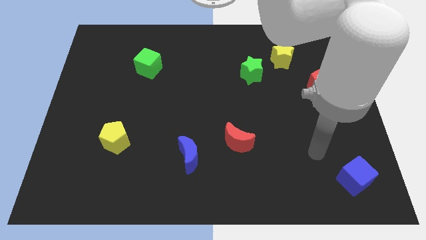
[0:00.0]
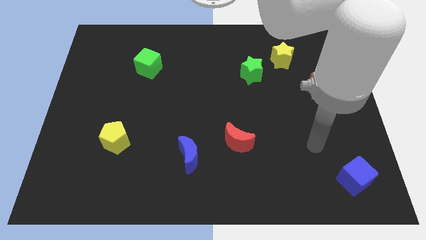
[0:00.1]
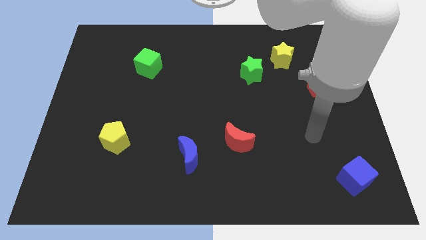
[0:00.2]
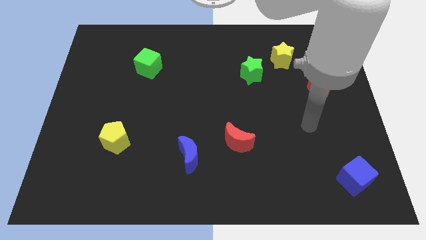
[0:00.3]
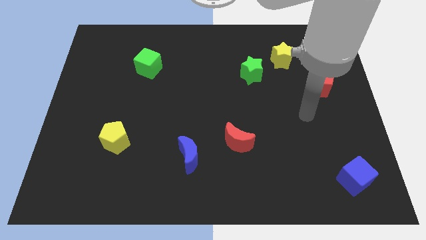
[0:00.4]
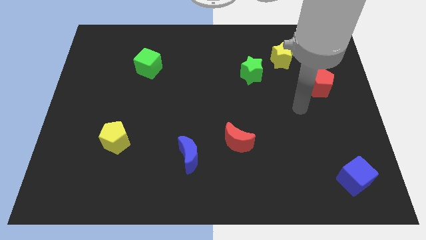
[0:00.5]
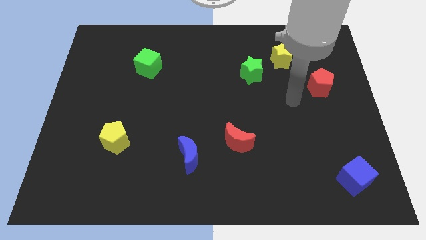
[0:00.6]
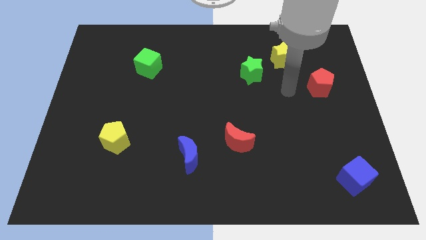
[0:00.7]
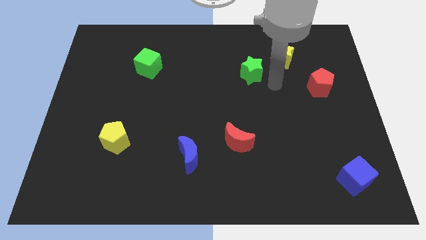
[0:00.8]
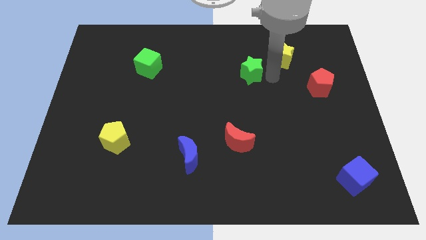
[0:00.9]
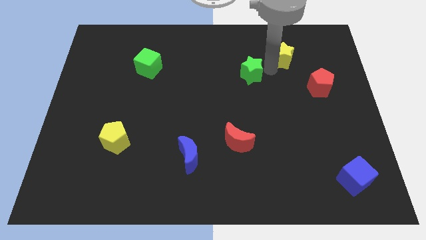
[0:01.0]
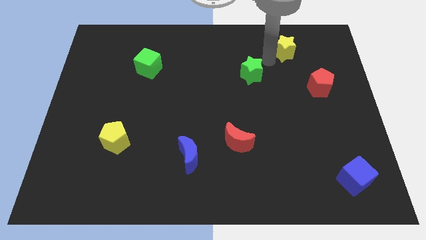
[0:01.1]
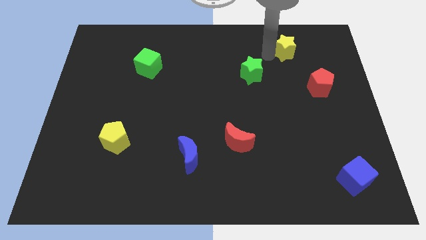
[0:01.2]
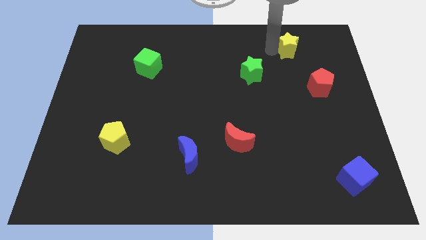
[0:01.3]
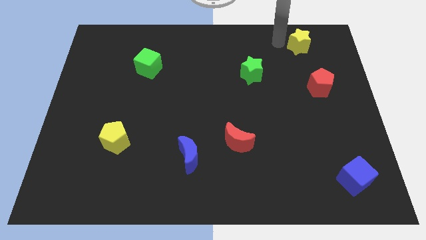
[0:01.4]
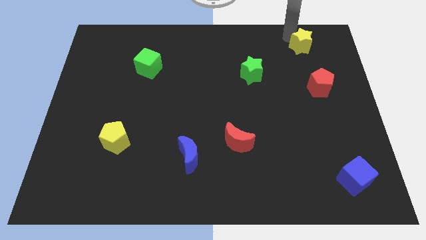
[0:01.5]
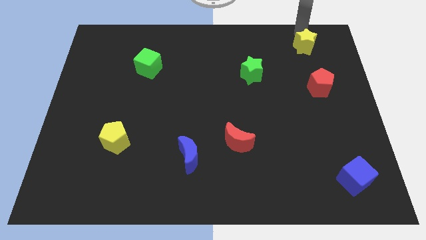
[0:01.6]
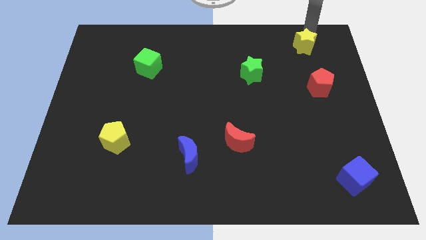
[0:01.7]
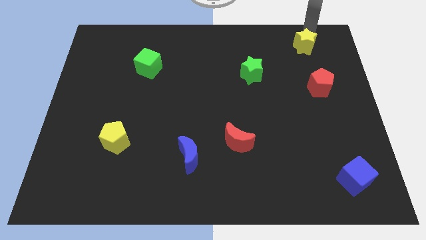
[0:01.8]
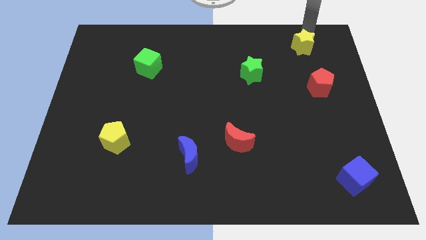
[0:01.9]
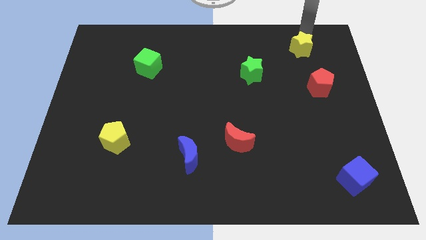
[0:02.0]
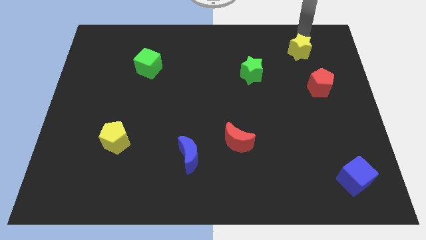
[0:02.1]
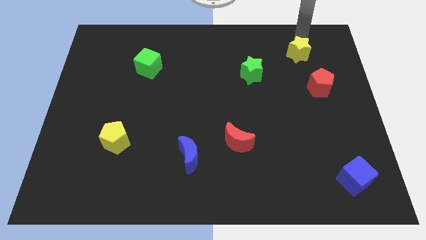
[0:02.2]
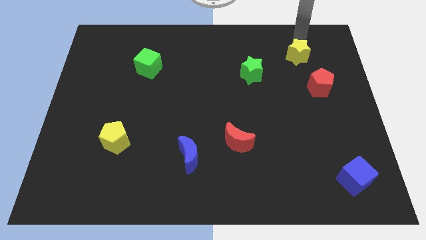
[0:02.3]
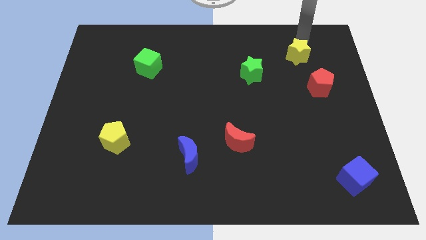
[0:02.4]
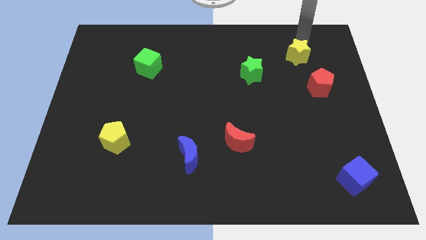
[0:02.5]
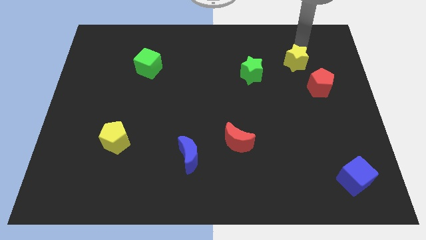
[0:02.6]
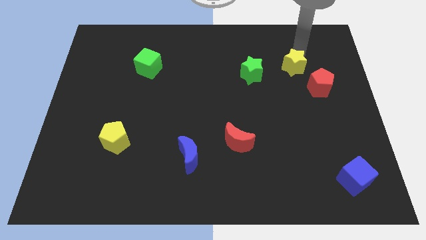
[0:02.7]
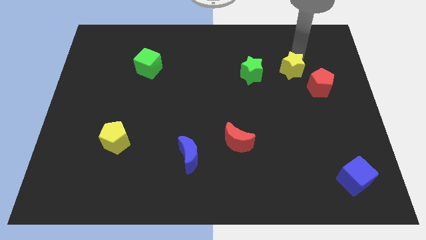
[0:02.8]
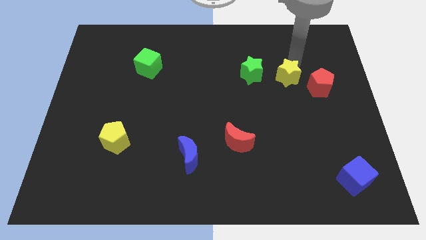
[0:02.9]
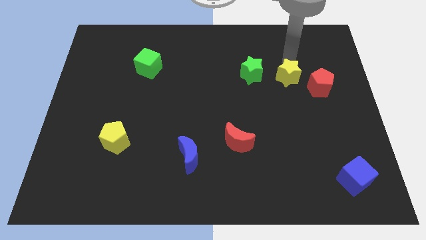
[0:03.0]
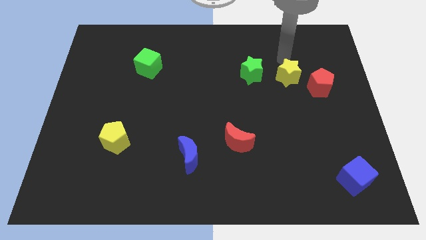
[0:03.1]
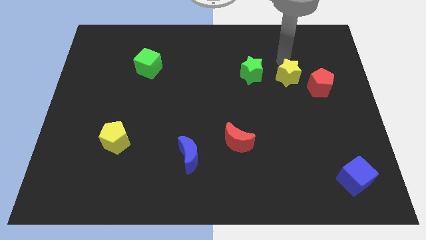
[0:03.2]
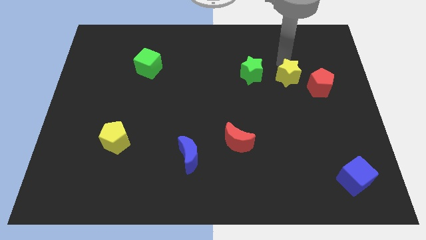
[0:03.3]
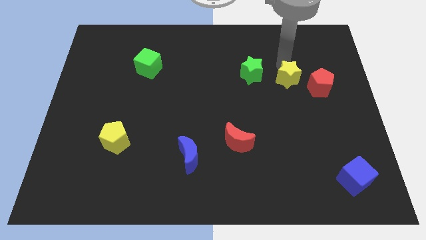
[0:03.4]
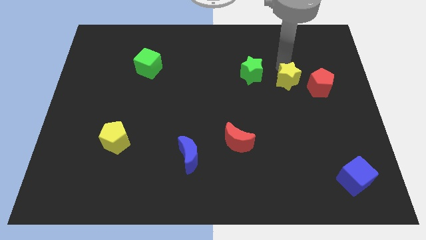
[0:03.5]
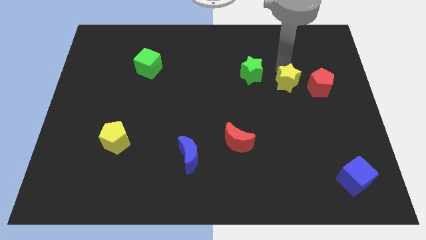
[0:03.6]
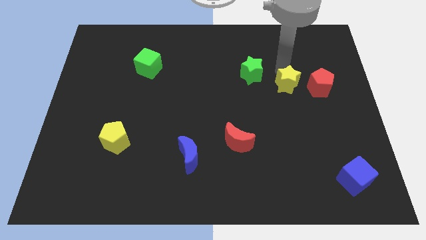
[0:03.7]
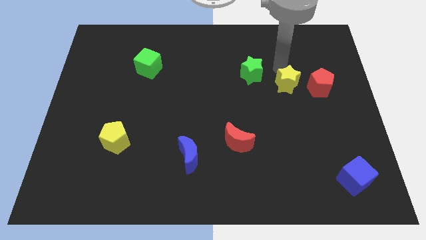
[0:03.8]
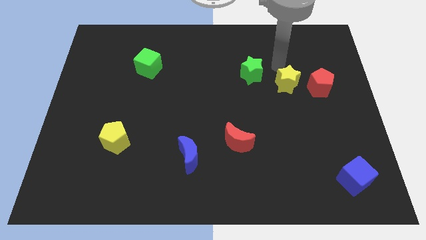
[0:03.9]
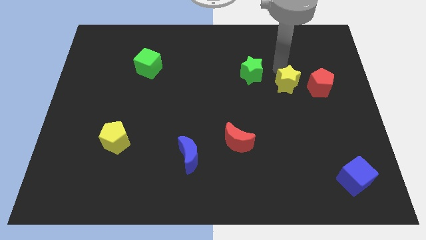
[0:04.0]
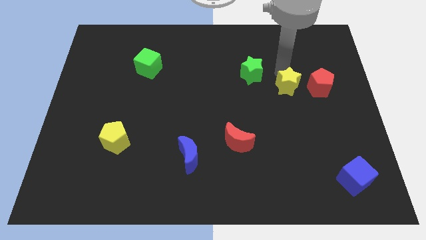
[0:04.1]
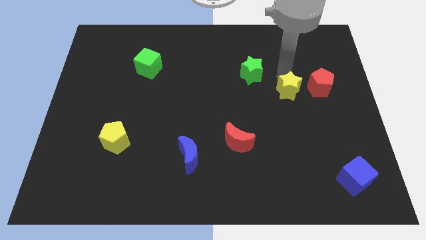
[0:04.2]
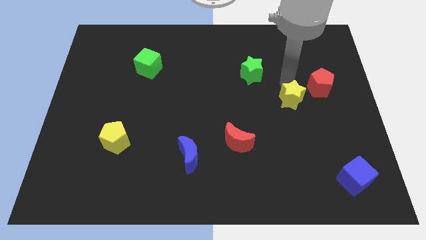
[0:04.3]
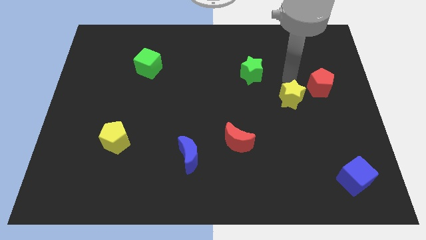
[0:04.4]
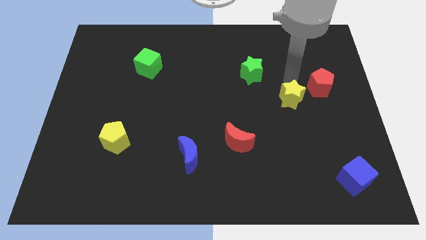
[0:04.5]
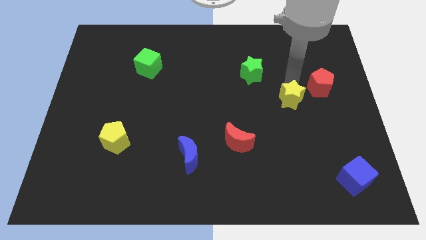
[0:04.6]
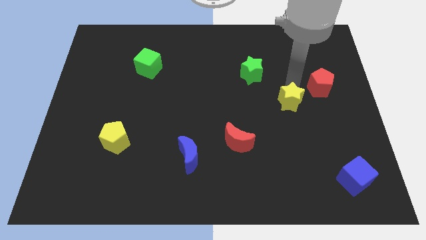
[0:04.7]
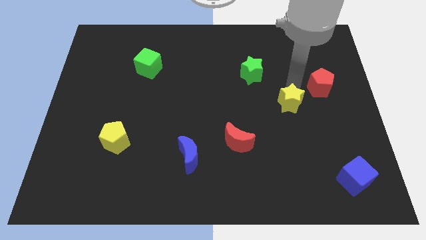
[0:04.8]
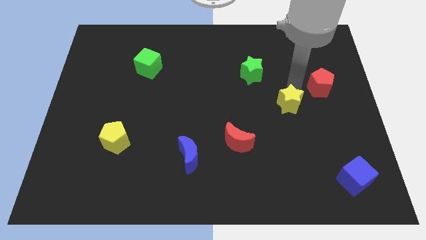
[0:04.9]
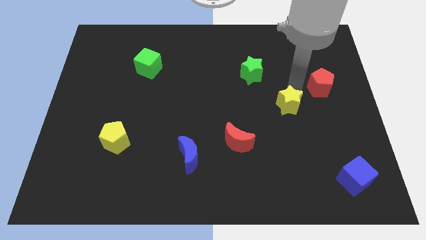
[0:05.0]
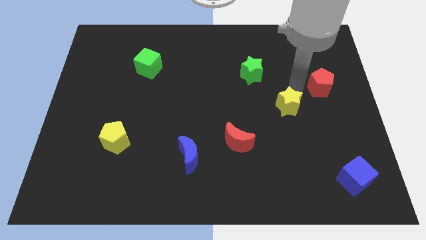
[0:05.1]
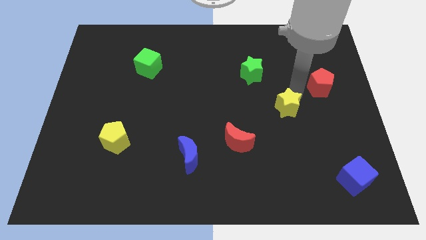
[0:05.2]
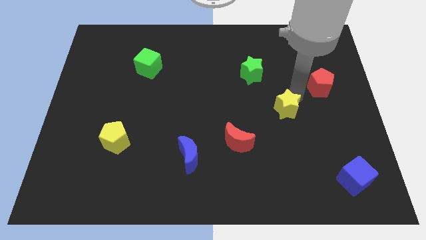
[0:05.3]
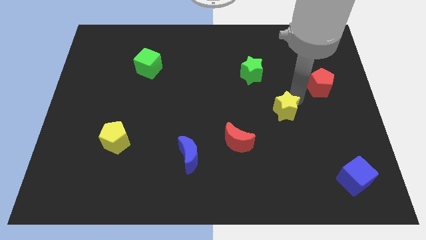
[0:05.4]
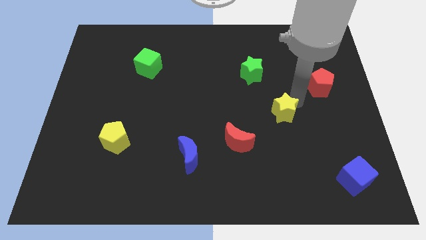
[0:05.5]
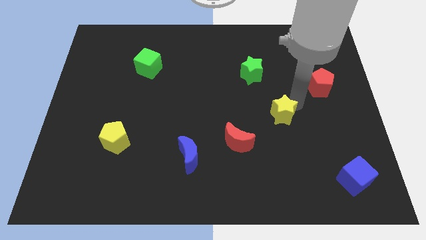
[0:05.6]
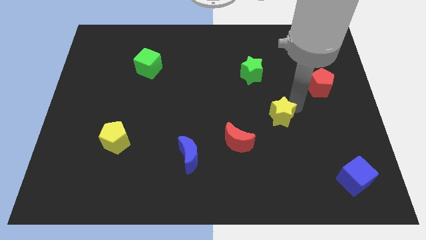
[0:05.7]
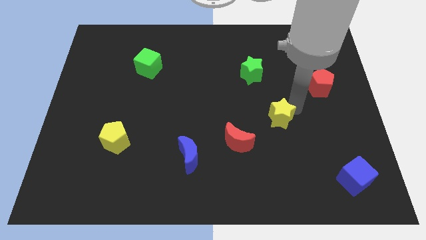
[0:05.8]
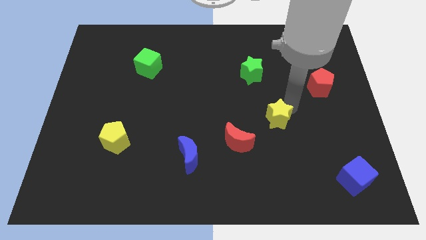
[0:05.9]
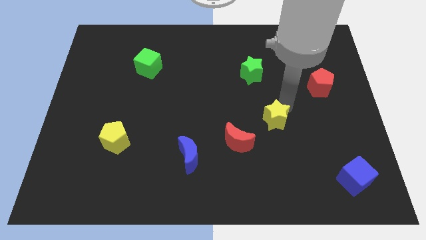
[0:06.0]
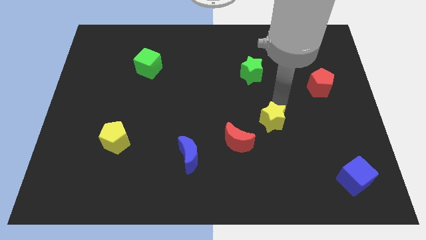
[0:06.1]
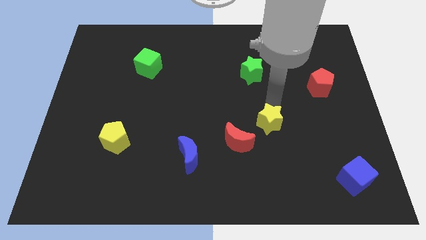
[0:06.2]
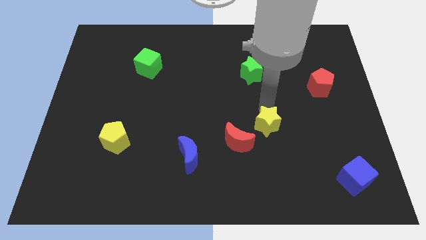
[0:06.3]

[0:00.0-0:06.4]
slide the yellow star down

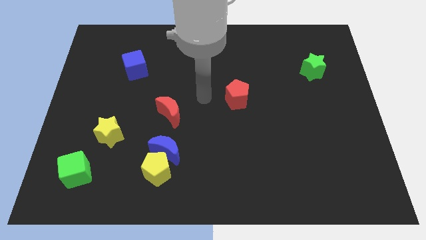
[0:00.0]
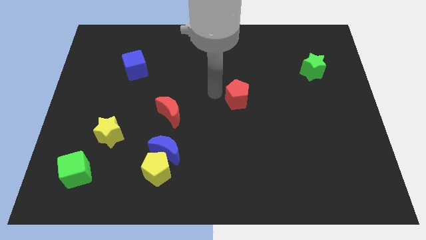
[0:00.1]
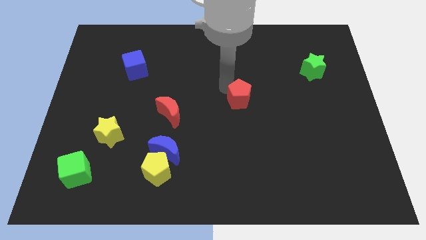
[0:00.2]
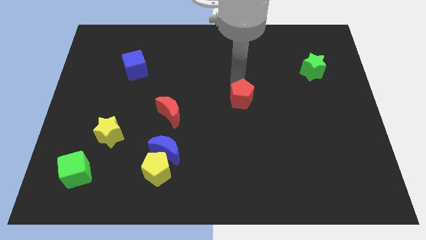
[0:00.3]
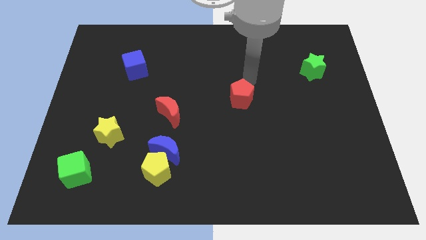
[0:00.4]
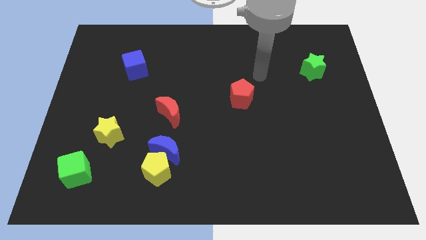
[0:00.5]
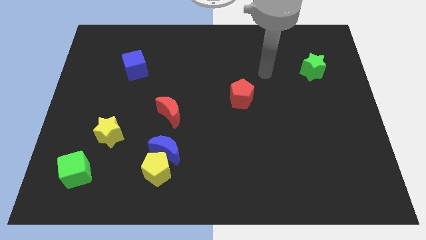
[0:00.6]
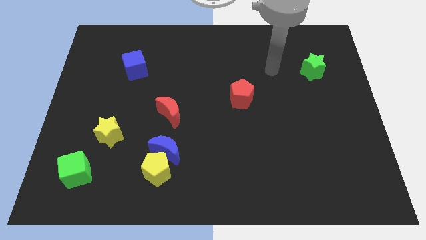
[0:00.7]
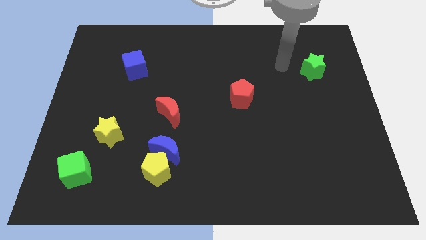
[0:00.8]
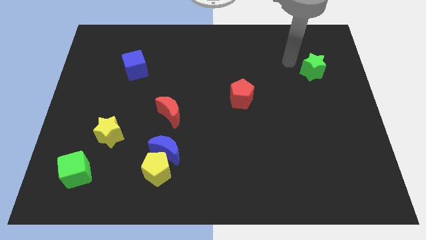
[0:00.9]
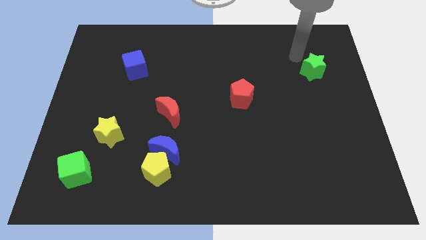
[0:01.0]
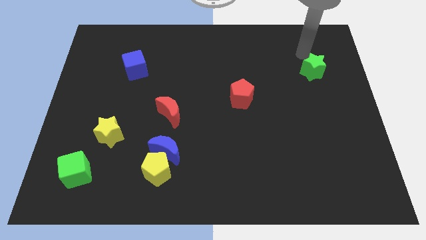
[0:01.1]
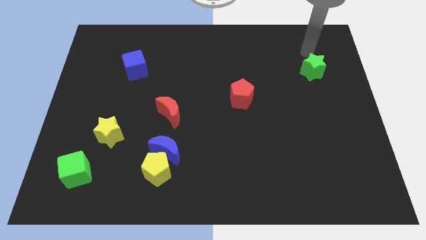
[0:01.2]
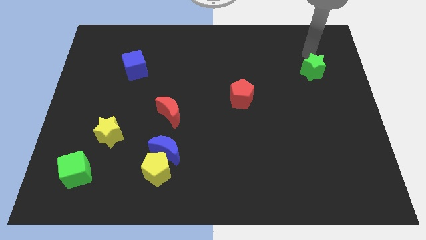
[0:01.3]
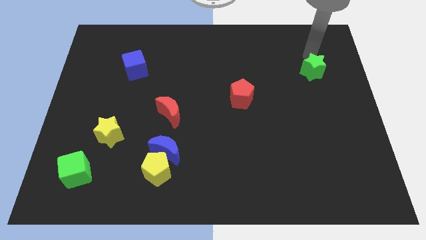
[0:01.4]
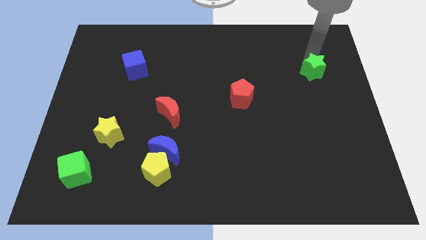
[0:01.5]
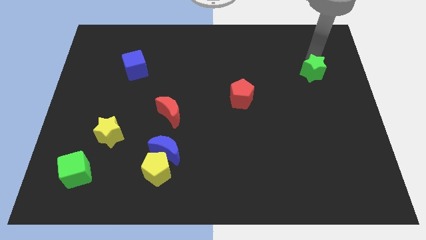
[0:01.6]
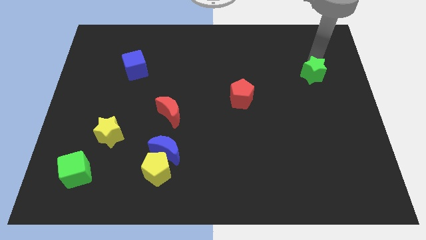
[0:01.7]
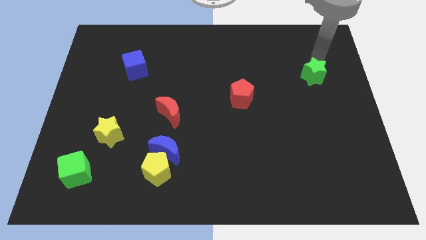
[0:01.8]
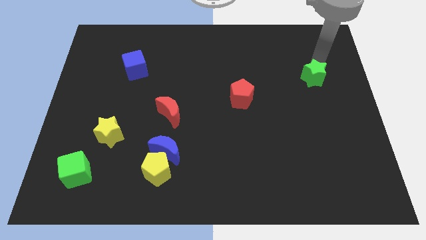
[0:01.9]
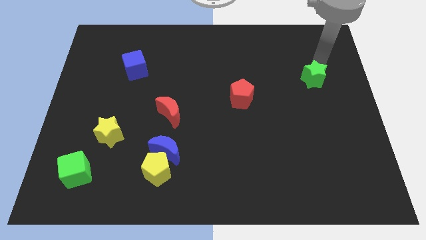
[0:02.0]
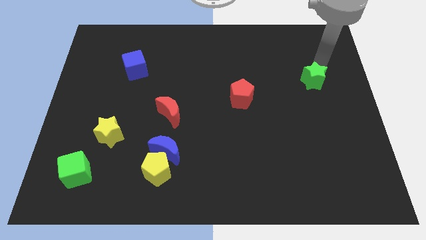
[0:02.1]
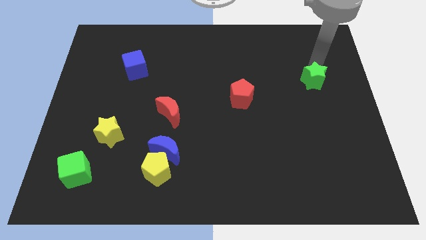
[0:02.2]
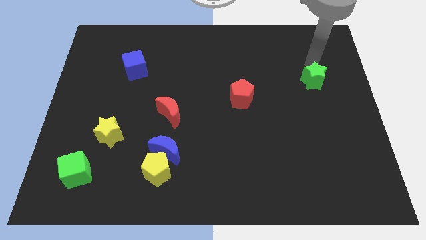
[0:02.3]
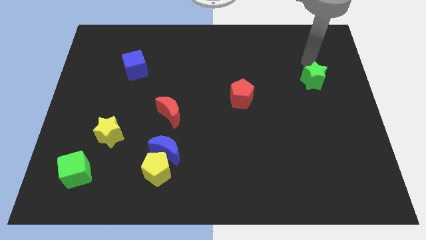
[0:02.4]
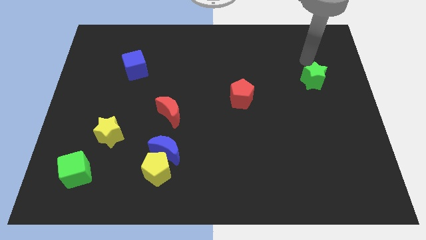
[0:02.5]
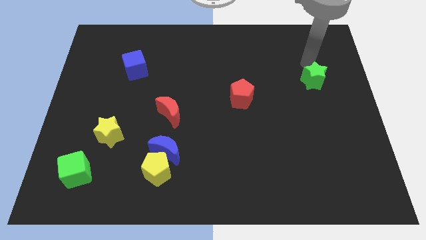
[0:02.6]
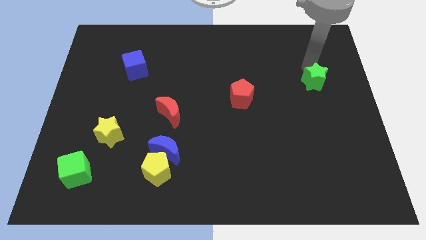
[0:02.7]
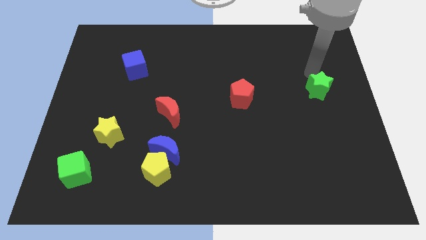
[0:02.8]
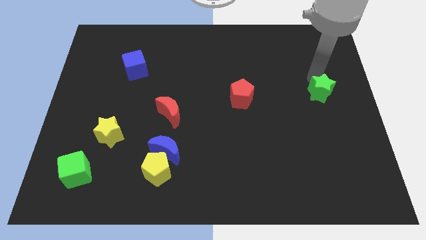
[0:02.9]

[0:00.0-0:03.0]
move the green star a little down
